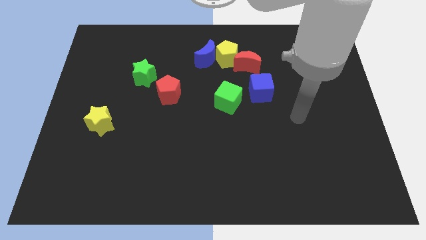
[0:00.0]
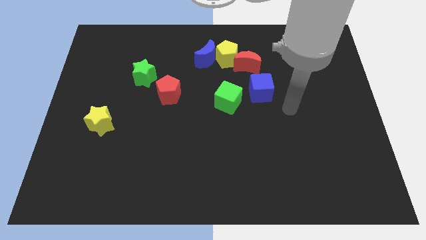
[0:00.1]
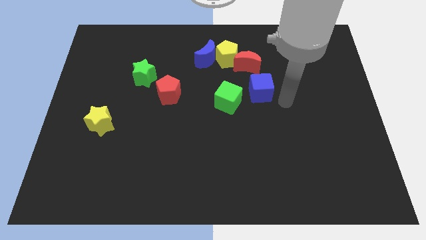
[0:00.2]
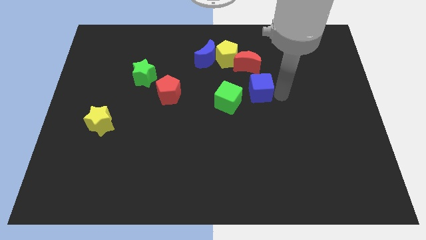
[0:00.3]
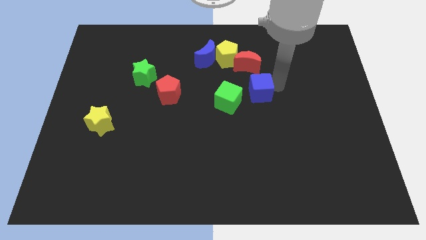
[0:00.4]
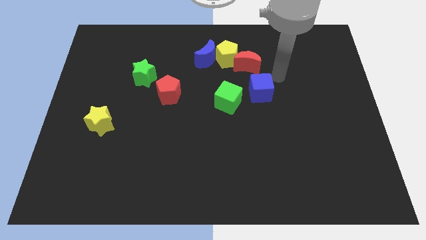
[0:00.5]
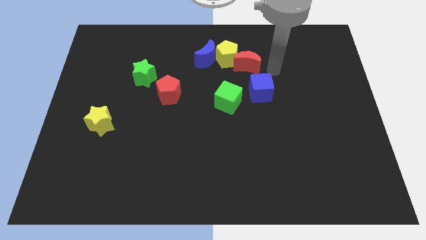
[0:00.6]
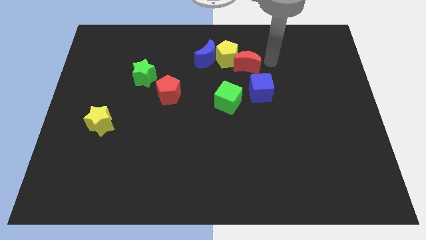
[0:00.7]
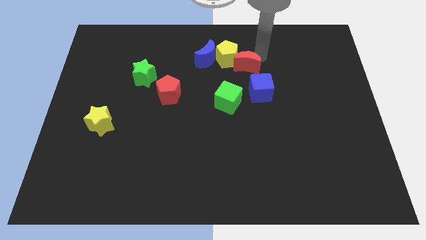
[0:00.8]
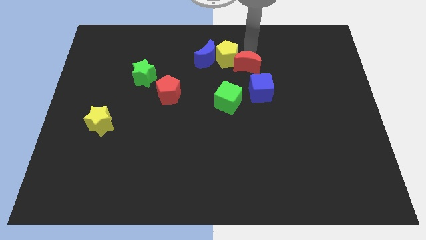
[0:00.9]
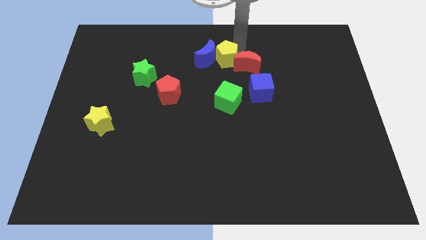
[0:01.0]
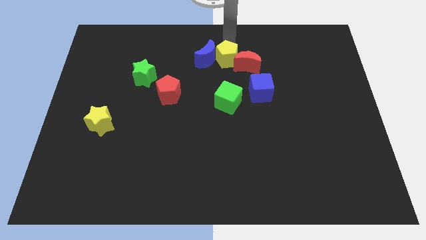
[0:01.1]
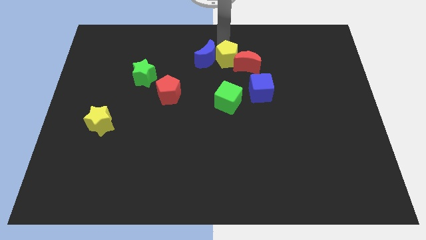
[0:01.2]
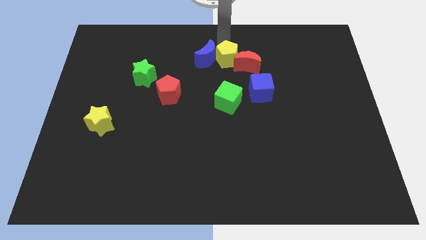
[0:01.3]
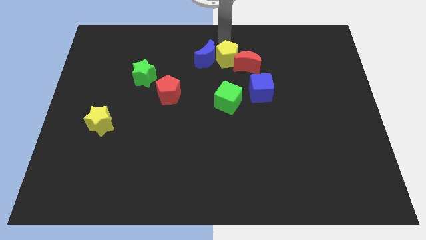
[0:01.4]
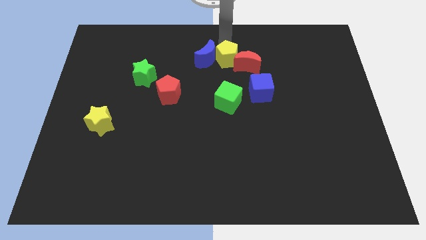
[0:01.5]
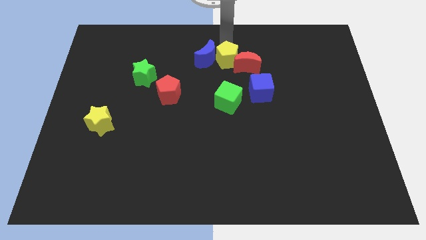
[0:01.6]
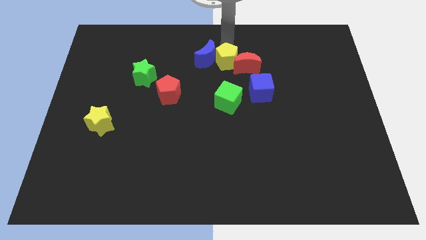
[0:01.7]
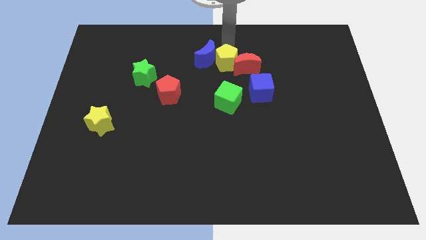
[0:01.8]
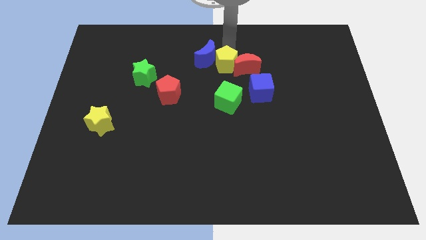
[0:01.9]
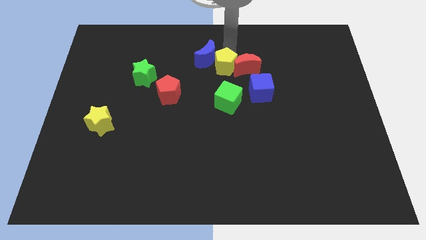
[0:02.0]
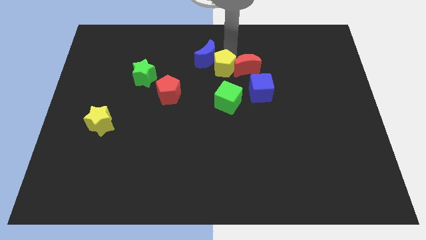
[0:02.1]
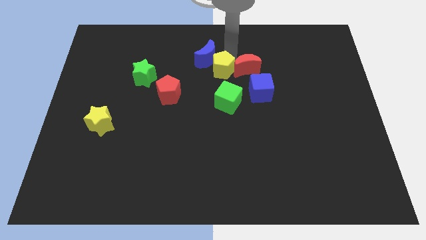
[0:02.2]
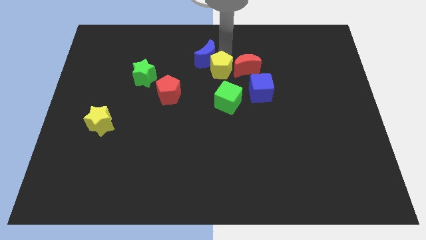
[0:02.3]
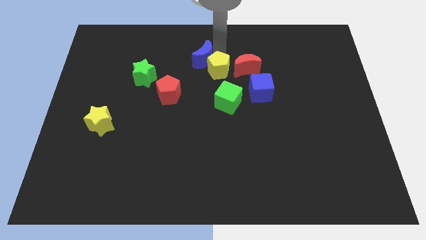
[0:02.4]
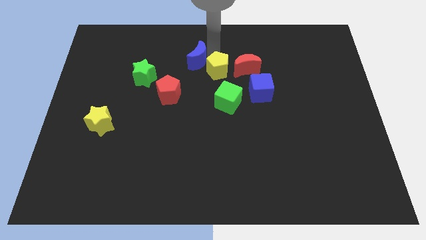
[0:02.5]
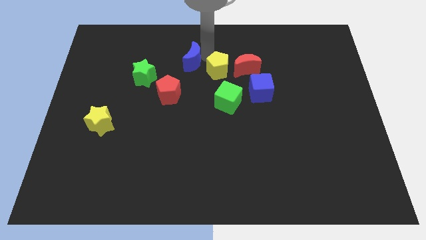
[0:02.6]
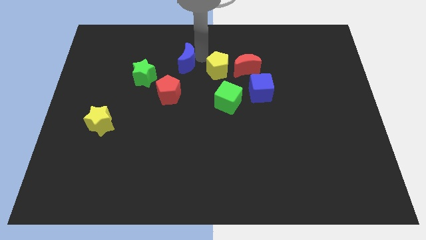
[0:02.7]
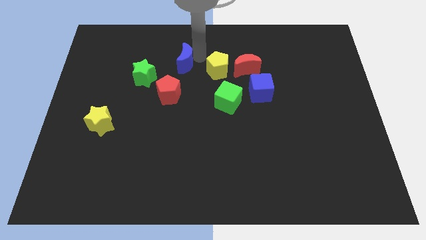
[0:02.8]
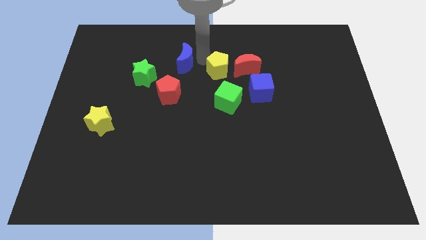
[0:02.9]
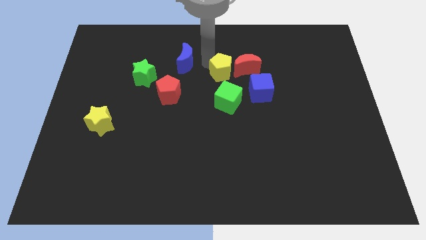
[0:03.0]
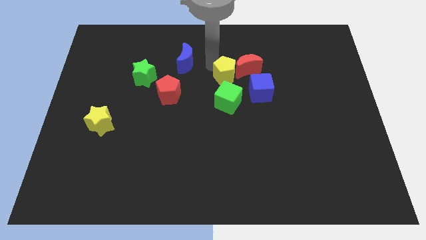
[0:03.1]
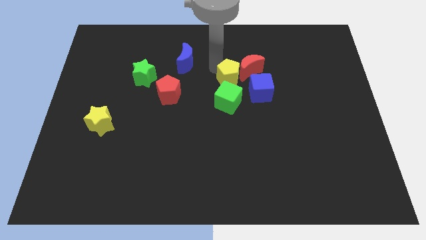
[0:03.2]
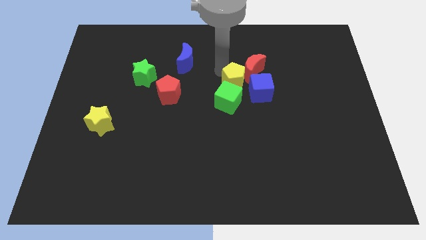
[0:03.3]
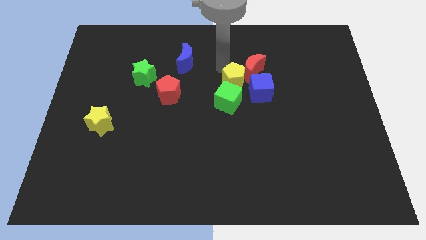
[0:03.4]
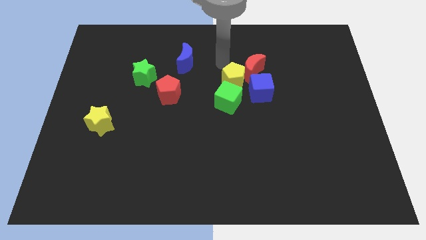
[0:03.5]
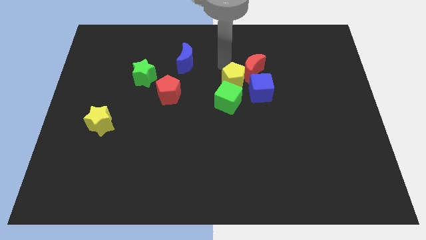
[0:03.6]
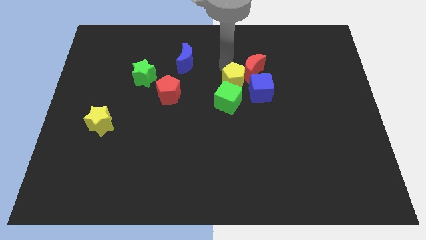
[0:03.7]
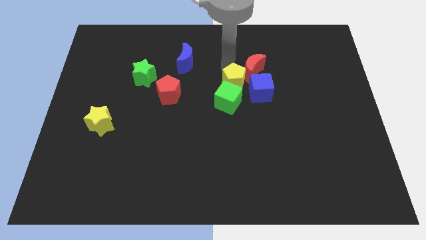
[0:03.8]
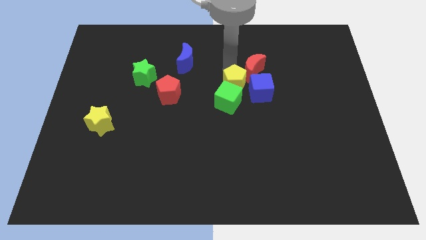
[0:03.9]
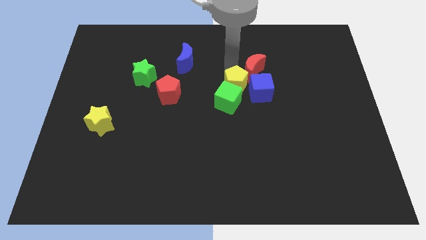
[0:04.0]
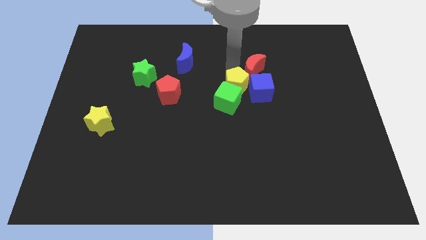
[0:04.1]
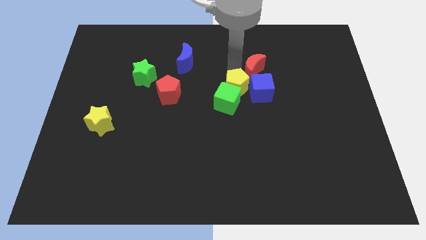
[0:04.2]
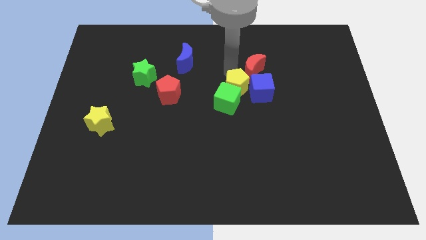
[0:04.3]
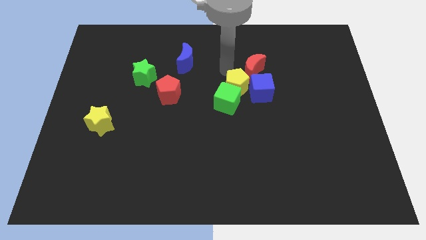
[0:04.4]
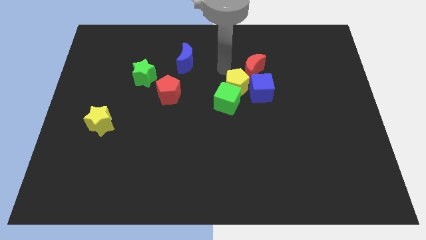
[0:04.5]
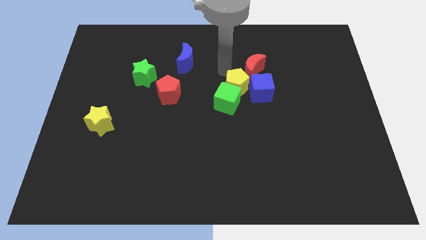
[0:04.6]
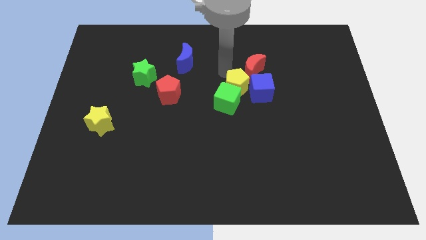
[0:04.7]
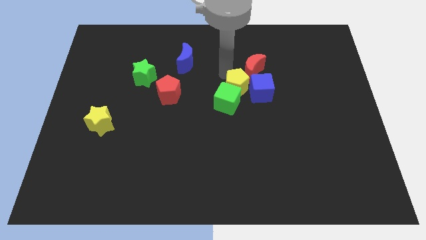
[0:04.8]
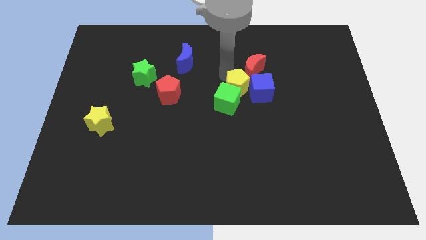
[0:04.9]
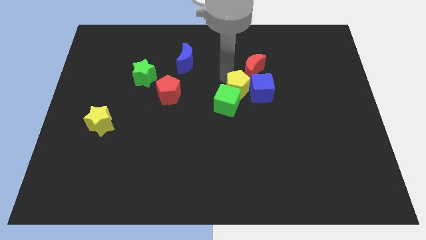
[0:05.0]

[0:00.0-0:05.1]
slide the yellow pentagon to the bottom left side of the blue cube

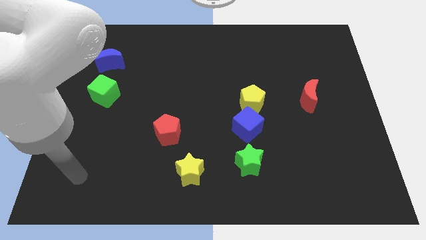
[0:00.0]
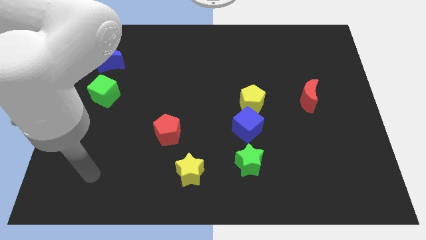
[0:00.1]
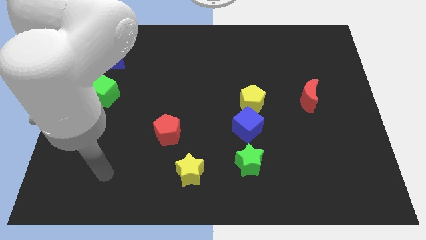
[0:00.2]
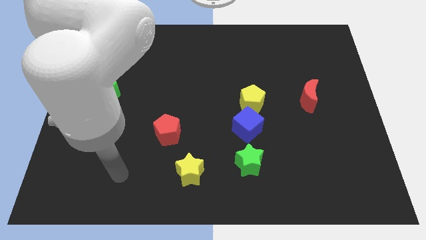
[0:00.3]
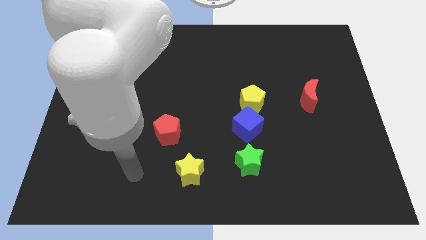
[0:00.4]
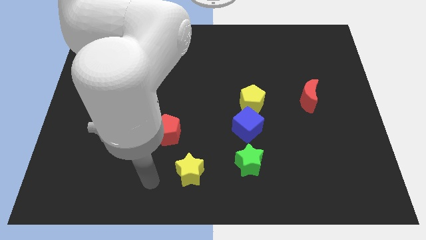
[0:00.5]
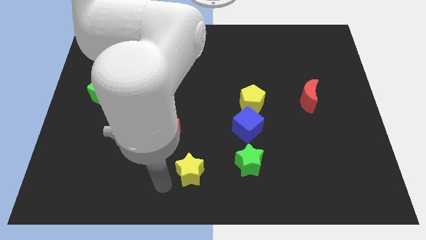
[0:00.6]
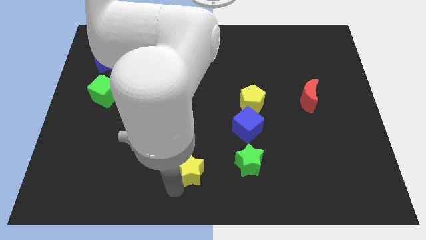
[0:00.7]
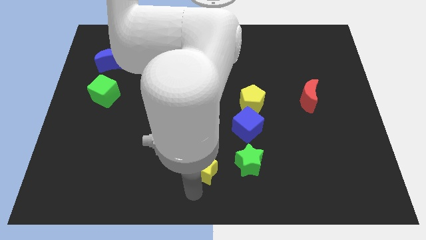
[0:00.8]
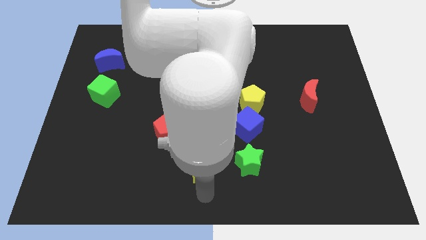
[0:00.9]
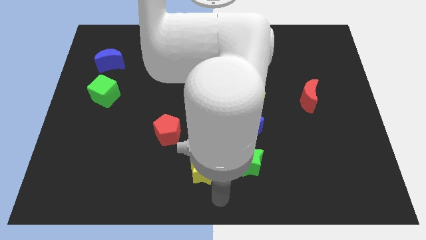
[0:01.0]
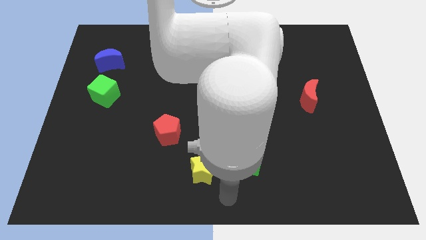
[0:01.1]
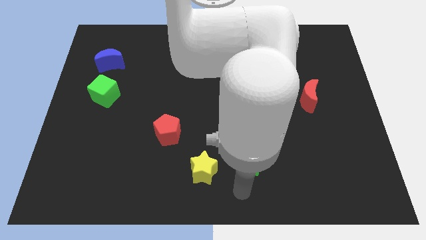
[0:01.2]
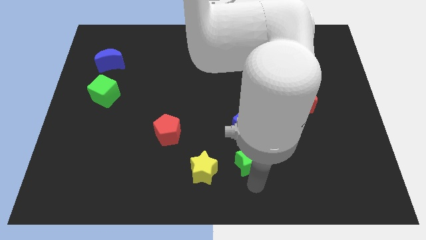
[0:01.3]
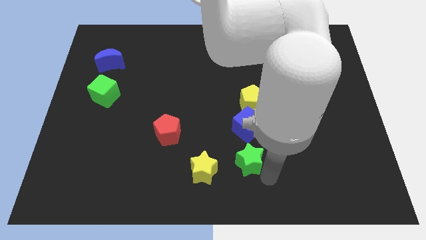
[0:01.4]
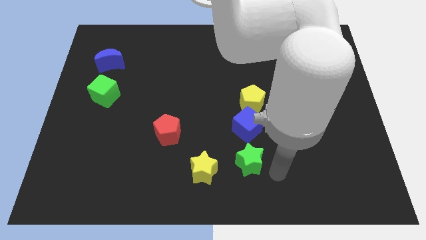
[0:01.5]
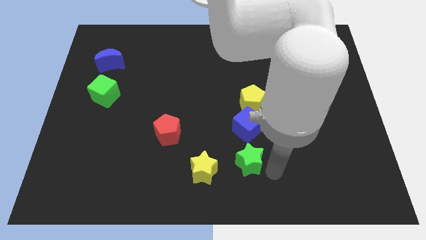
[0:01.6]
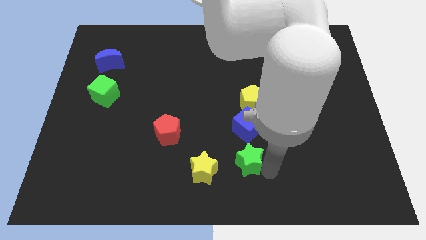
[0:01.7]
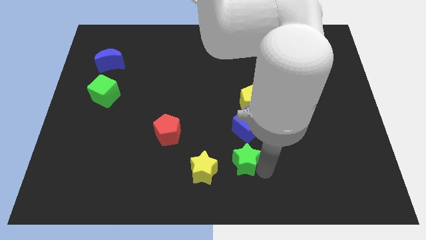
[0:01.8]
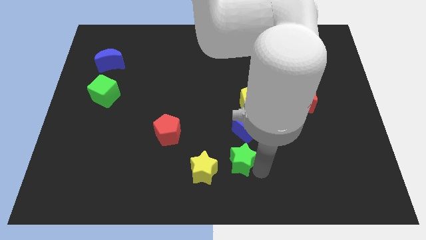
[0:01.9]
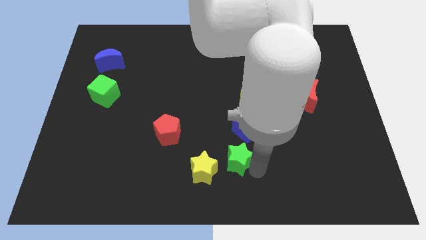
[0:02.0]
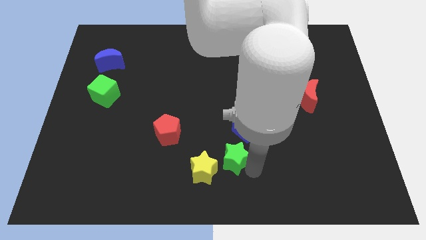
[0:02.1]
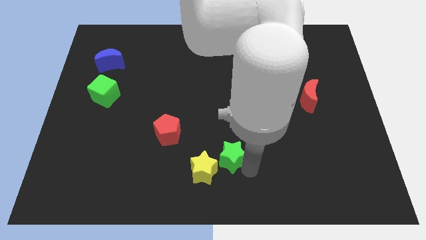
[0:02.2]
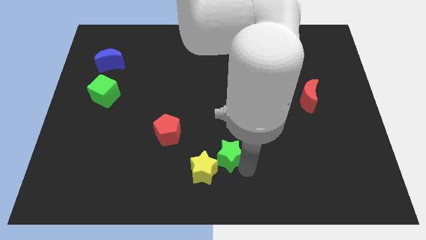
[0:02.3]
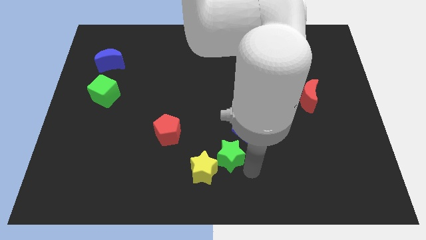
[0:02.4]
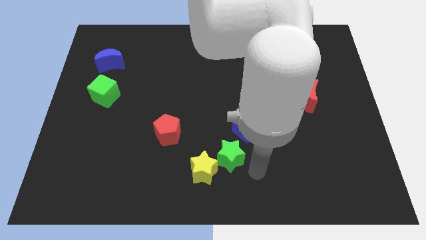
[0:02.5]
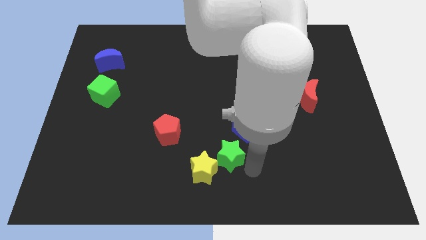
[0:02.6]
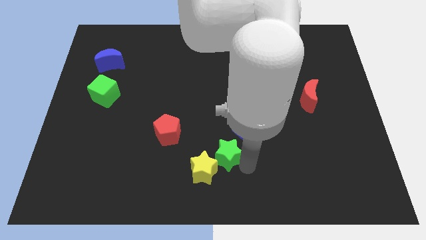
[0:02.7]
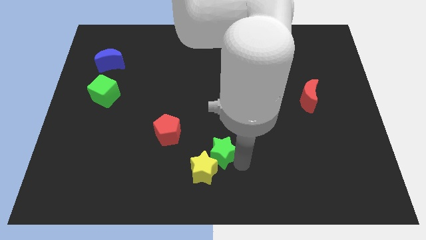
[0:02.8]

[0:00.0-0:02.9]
put the green star to the top side of the yellow star
